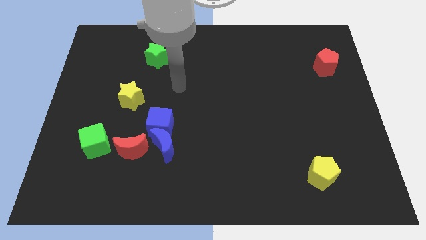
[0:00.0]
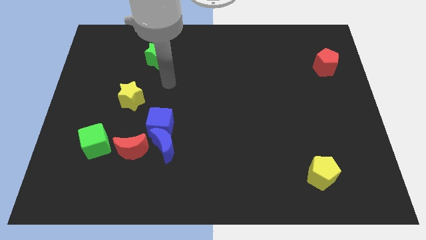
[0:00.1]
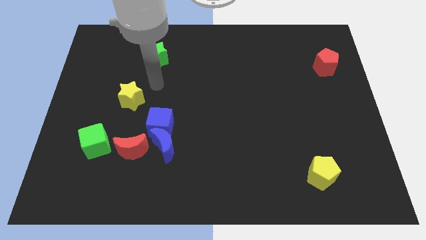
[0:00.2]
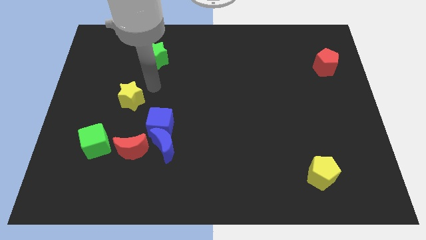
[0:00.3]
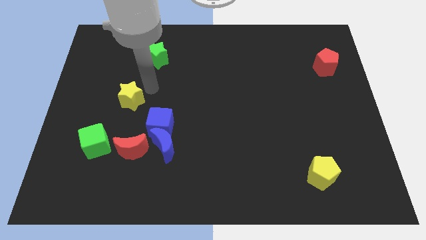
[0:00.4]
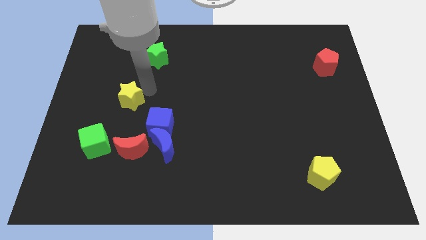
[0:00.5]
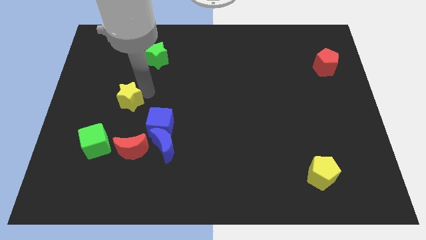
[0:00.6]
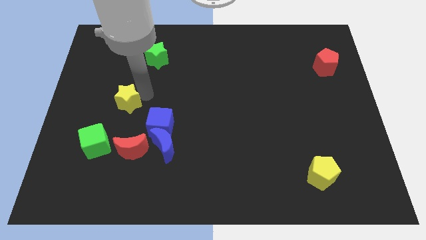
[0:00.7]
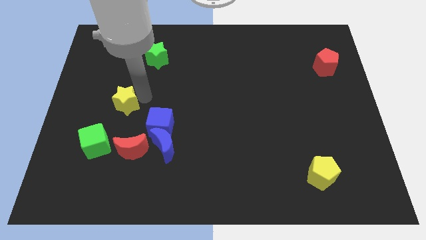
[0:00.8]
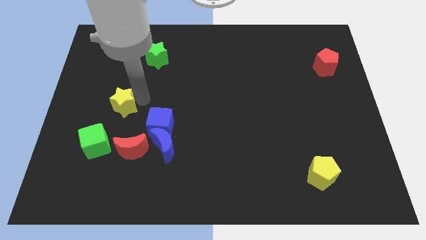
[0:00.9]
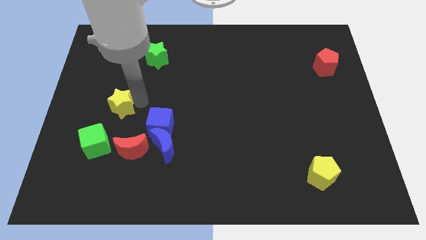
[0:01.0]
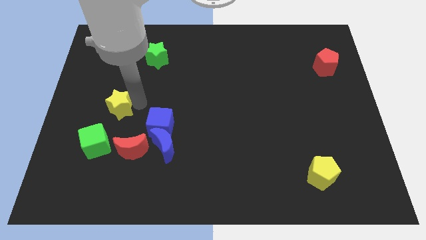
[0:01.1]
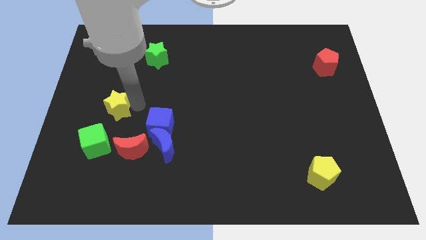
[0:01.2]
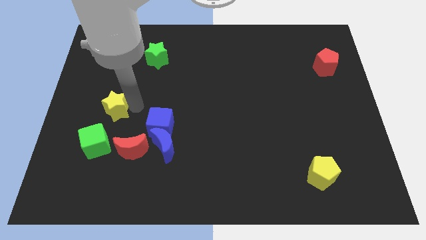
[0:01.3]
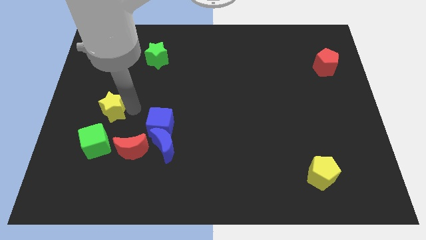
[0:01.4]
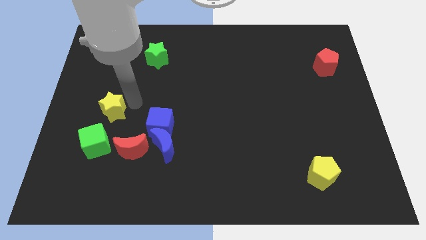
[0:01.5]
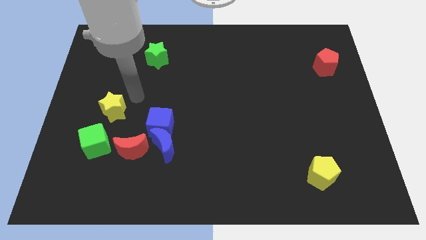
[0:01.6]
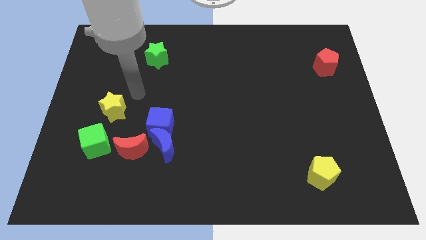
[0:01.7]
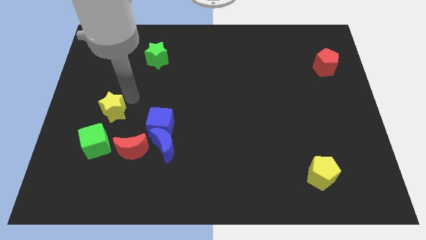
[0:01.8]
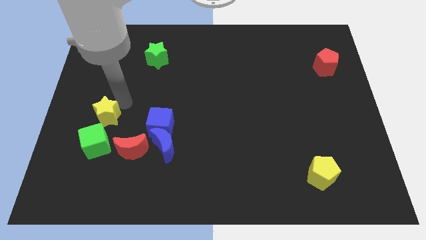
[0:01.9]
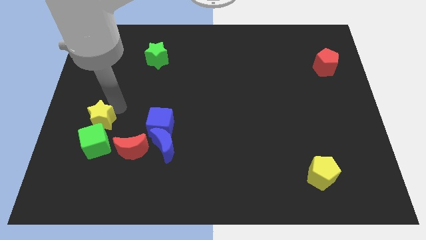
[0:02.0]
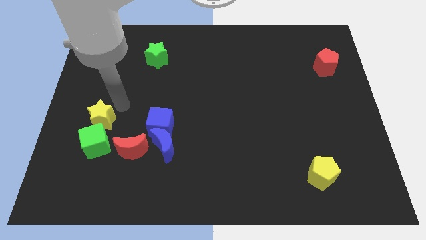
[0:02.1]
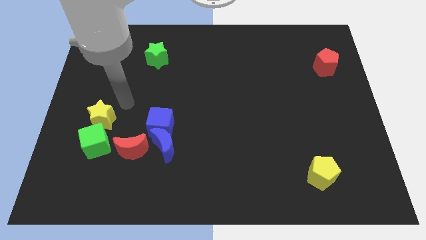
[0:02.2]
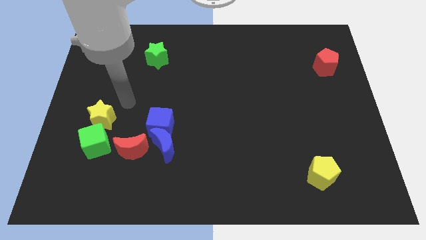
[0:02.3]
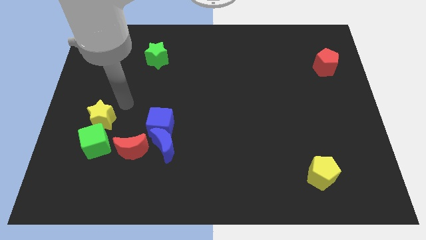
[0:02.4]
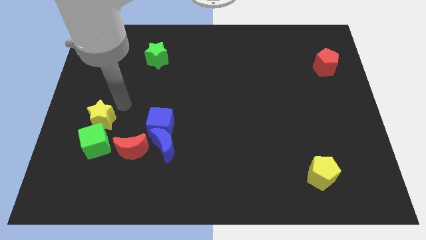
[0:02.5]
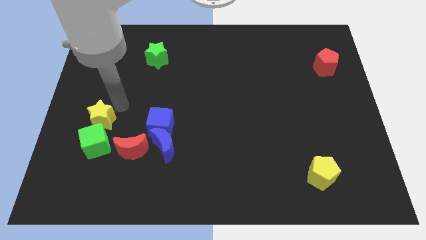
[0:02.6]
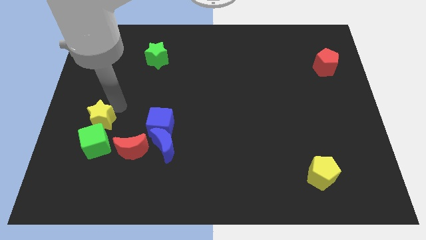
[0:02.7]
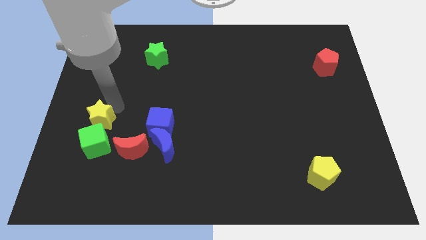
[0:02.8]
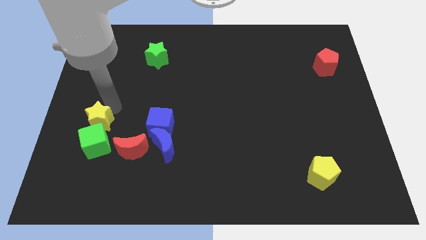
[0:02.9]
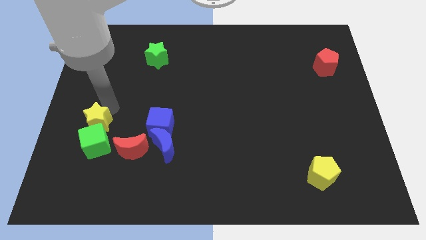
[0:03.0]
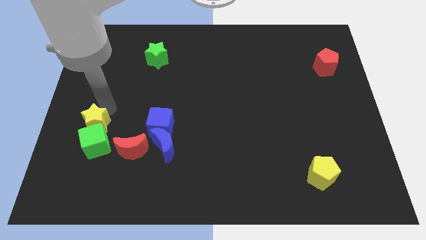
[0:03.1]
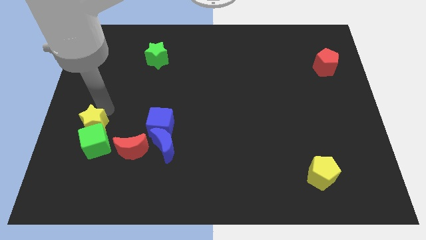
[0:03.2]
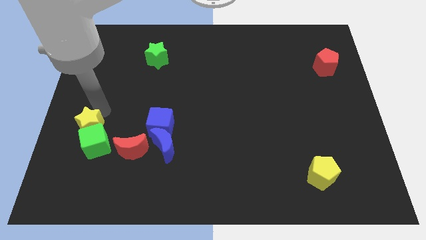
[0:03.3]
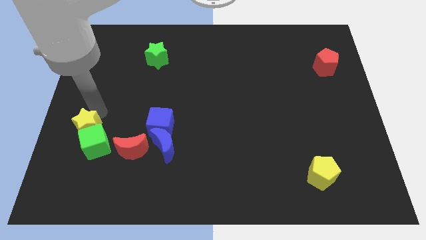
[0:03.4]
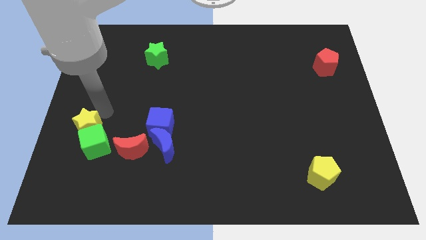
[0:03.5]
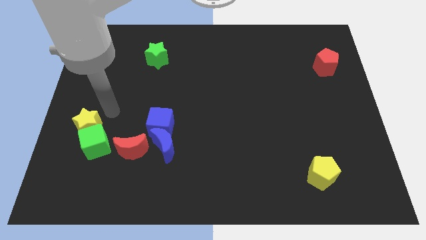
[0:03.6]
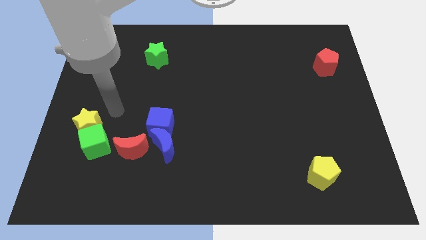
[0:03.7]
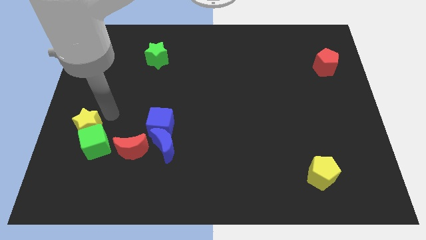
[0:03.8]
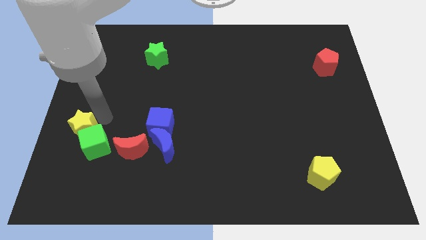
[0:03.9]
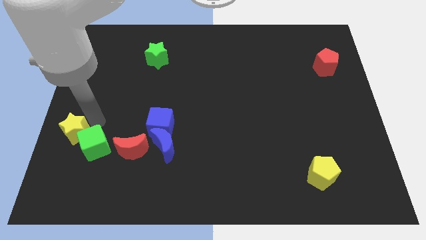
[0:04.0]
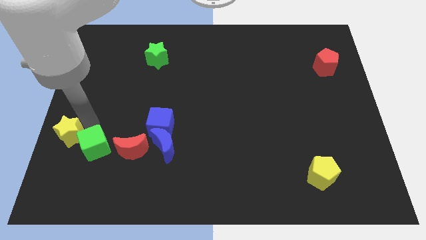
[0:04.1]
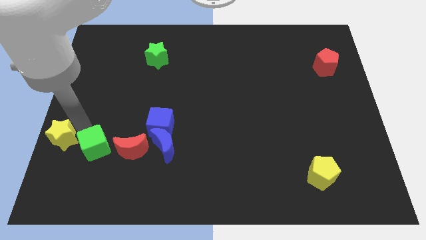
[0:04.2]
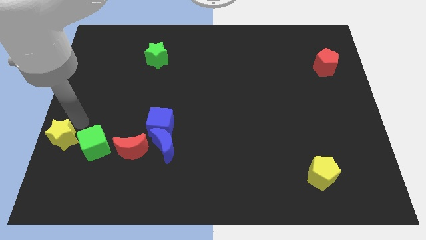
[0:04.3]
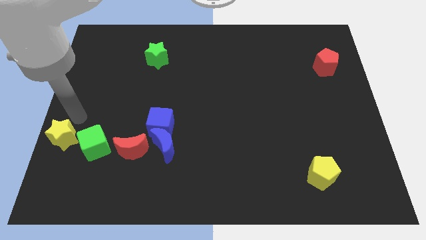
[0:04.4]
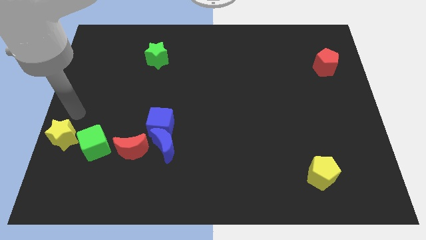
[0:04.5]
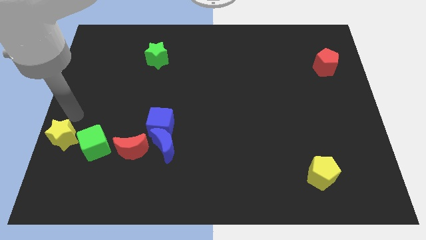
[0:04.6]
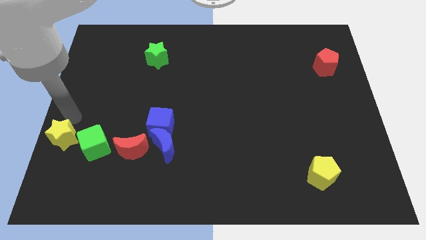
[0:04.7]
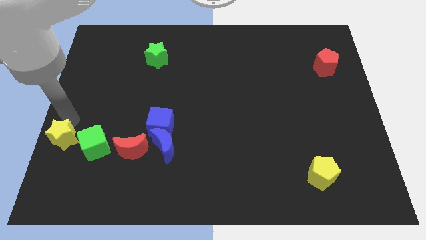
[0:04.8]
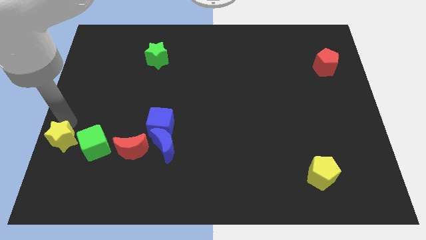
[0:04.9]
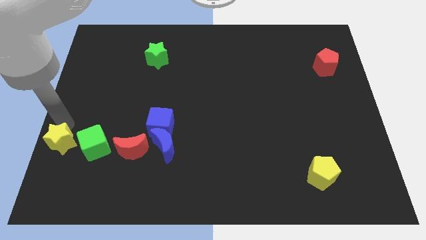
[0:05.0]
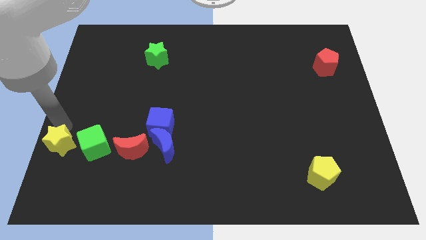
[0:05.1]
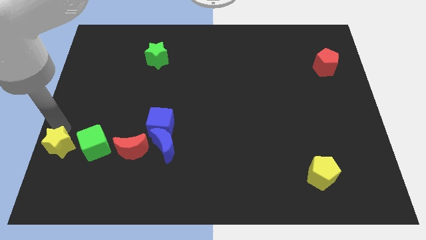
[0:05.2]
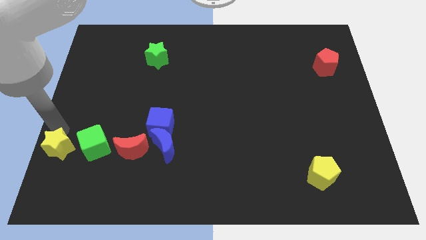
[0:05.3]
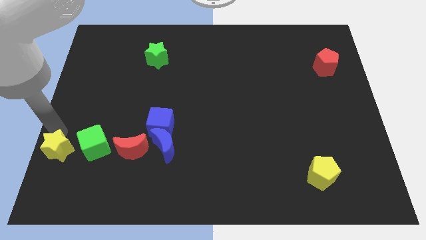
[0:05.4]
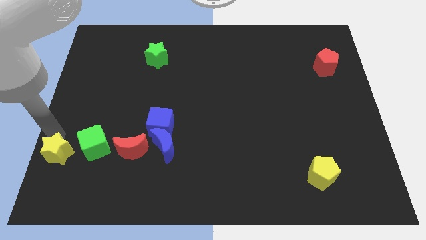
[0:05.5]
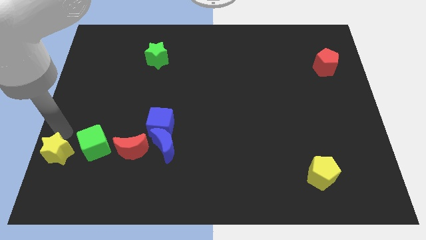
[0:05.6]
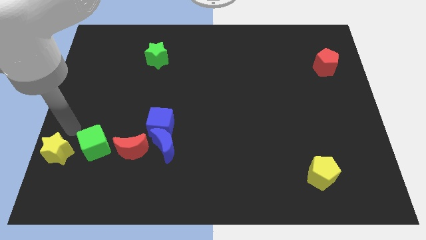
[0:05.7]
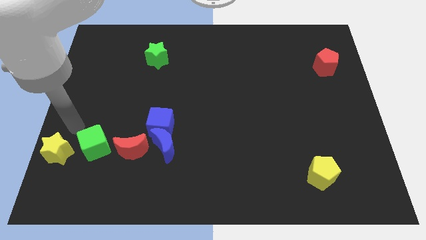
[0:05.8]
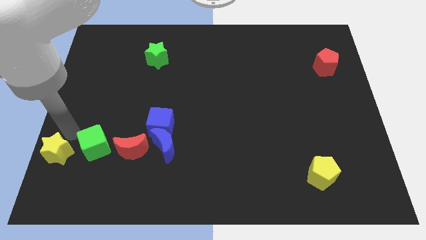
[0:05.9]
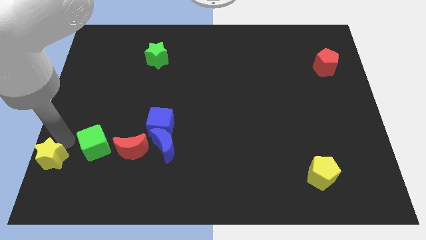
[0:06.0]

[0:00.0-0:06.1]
move the yellow star to the bottom left
